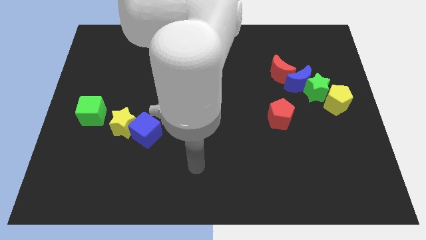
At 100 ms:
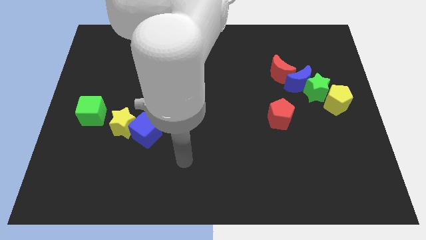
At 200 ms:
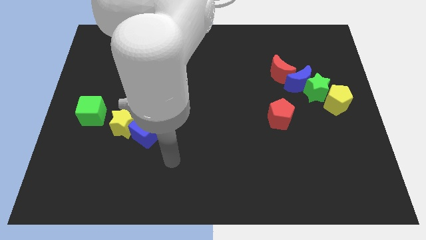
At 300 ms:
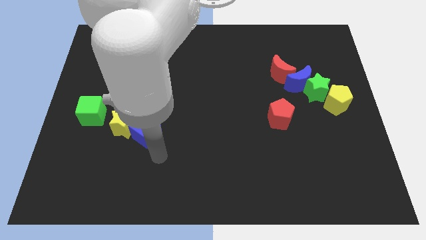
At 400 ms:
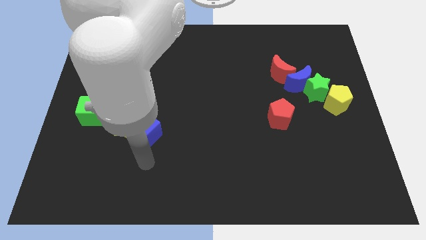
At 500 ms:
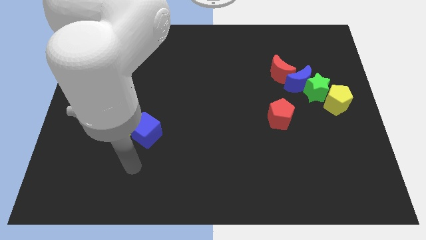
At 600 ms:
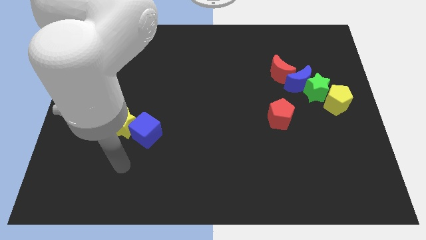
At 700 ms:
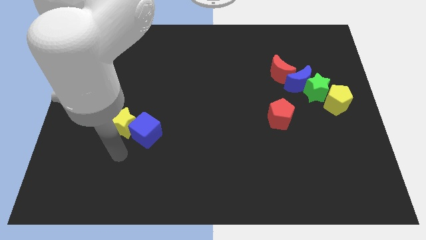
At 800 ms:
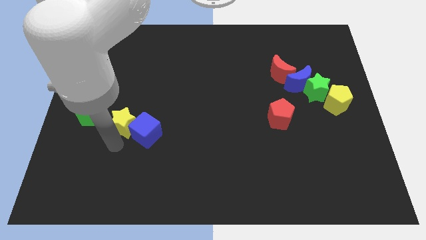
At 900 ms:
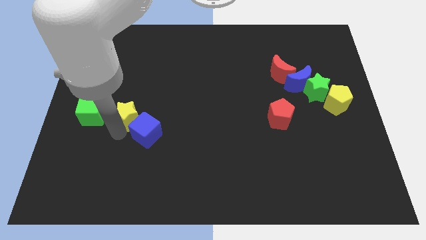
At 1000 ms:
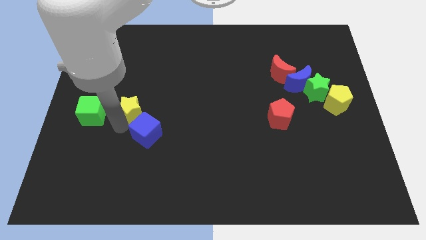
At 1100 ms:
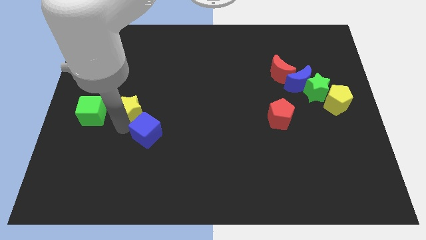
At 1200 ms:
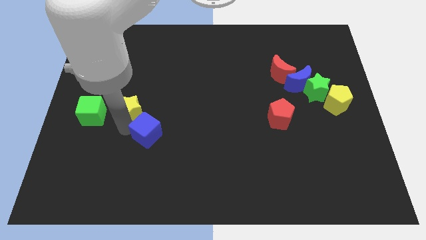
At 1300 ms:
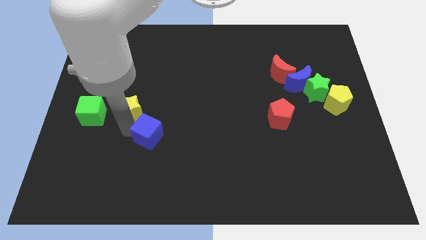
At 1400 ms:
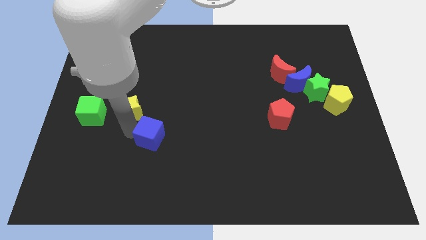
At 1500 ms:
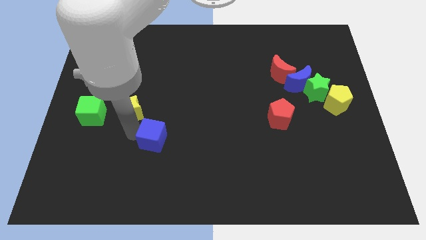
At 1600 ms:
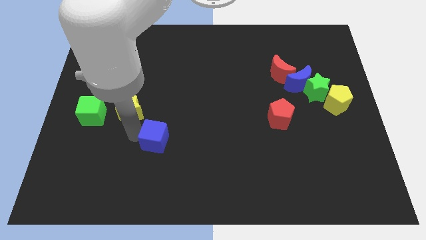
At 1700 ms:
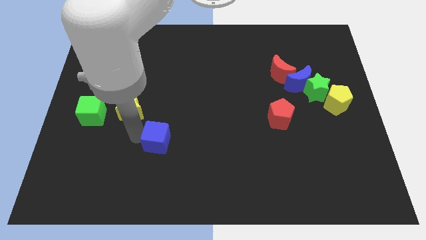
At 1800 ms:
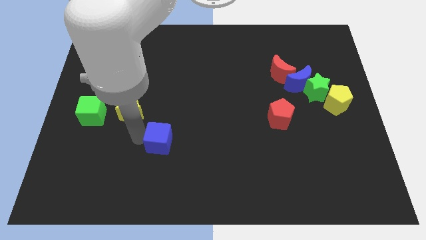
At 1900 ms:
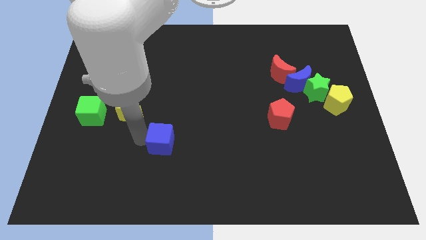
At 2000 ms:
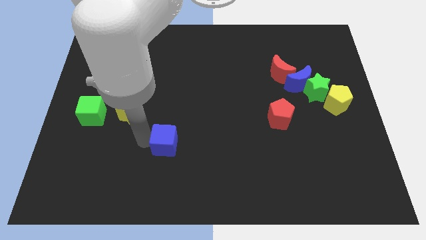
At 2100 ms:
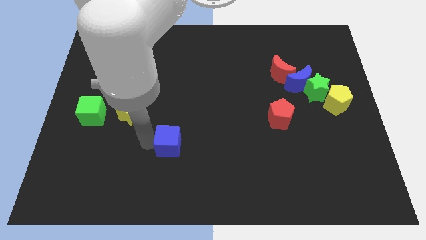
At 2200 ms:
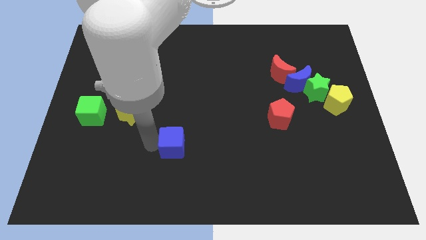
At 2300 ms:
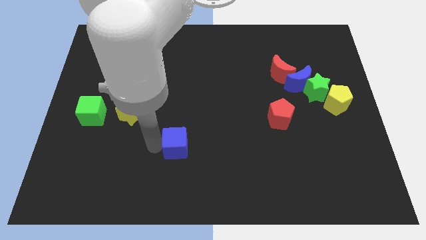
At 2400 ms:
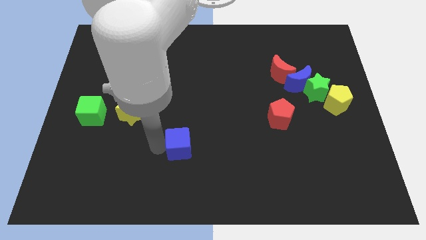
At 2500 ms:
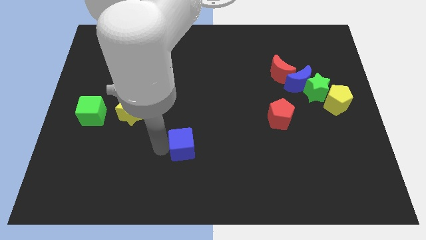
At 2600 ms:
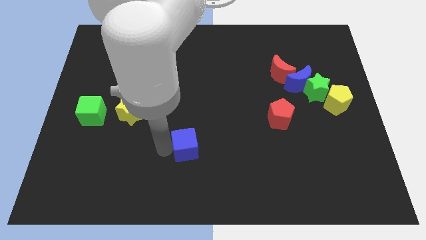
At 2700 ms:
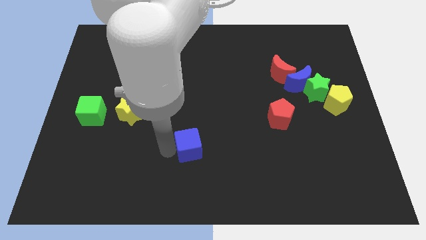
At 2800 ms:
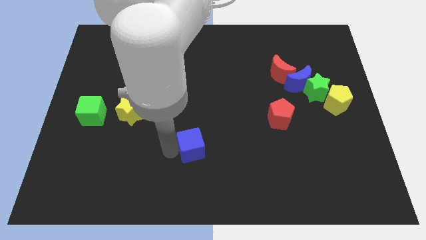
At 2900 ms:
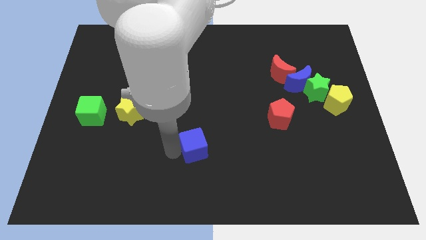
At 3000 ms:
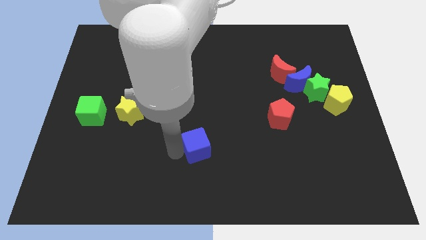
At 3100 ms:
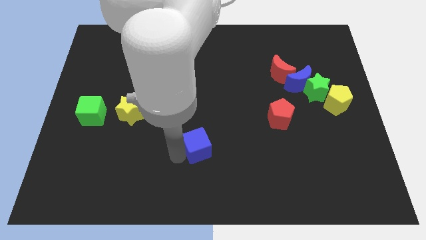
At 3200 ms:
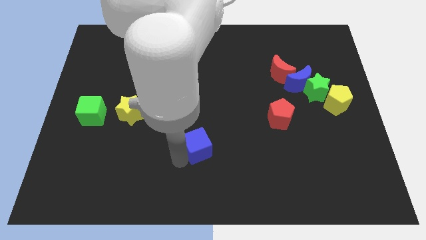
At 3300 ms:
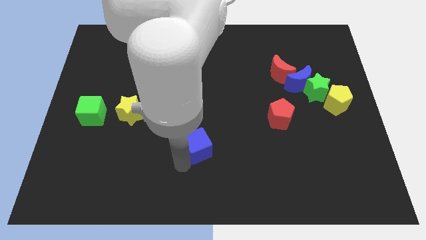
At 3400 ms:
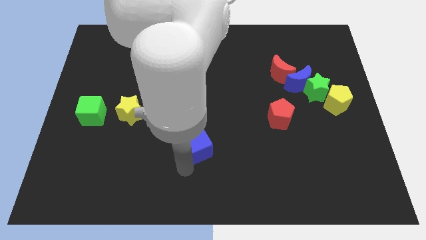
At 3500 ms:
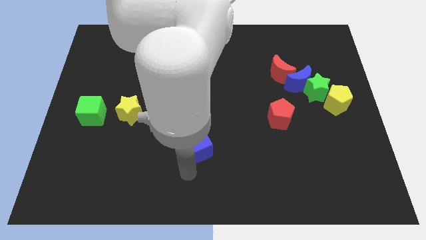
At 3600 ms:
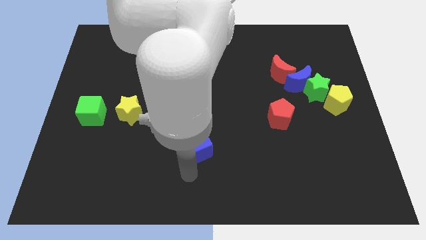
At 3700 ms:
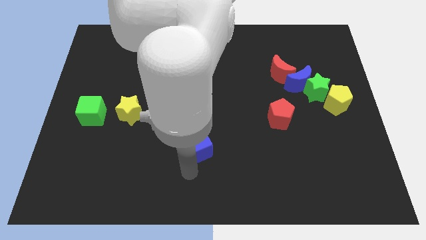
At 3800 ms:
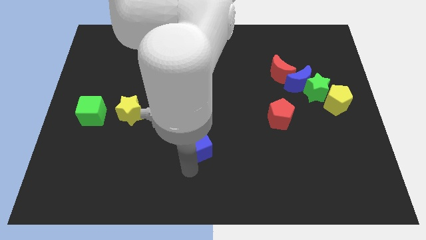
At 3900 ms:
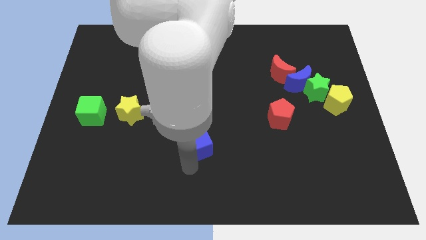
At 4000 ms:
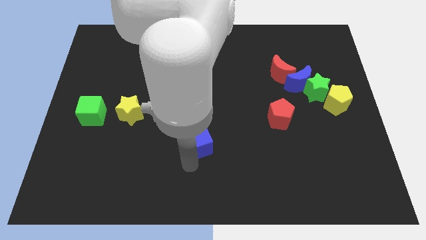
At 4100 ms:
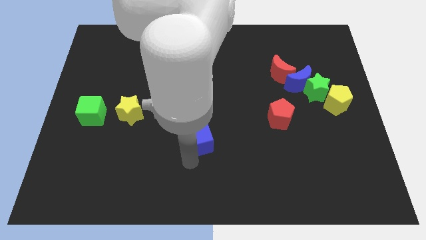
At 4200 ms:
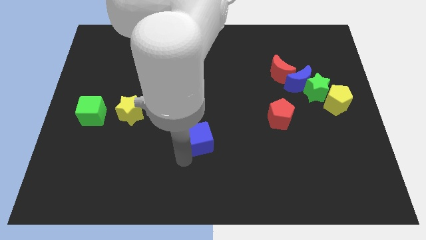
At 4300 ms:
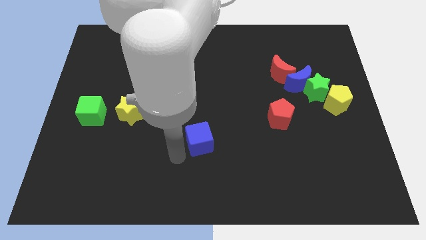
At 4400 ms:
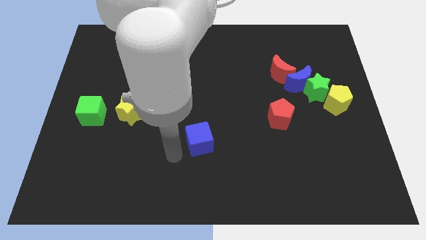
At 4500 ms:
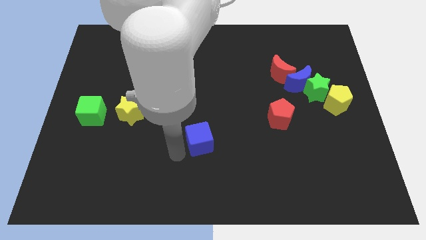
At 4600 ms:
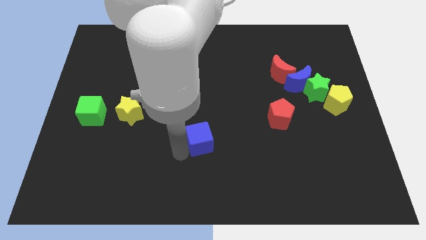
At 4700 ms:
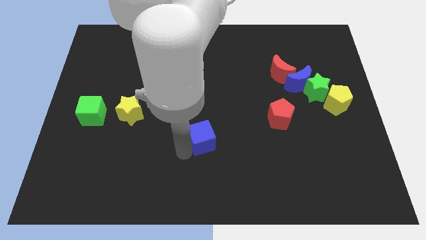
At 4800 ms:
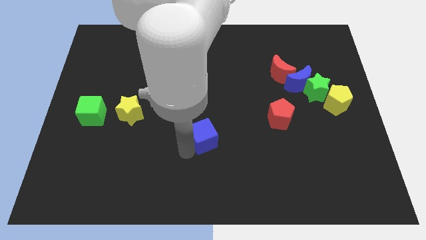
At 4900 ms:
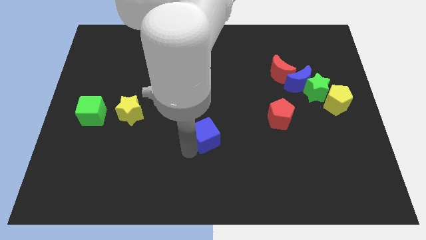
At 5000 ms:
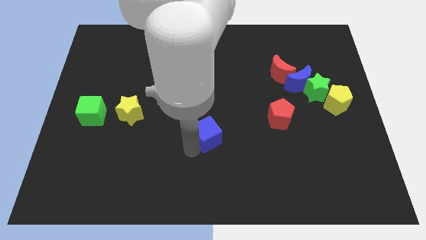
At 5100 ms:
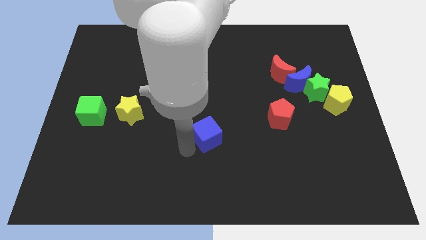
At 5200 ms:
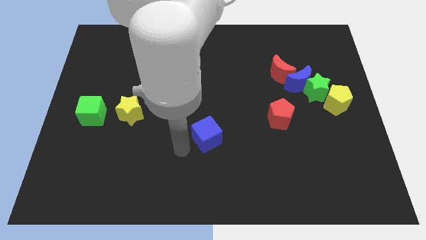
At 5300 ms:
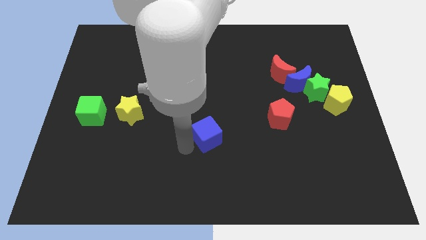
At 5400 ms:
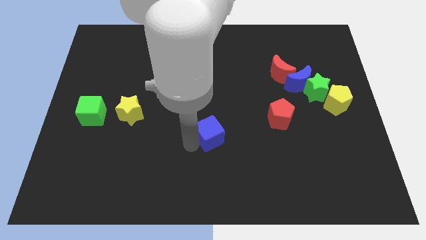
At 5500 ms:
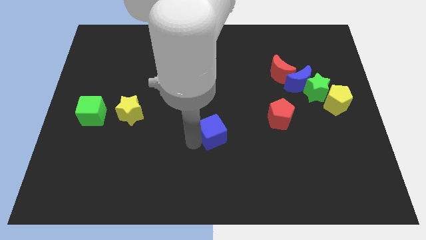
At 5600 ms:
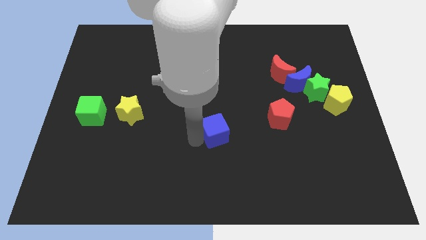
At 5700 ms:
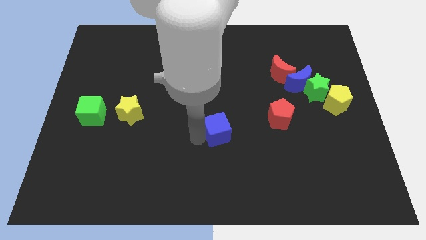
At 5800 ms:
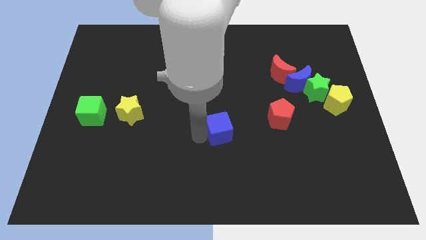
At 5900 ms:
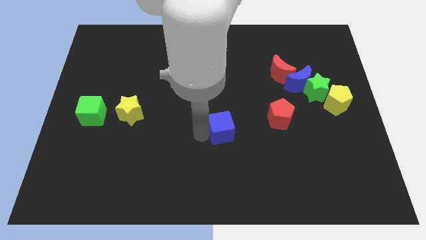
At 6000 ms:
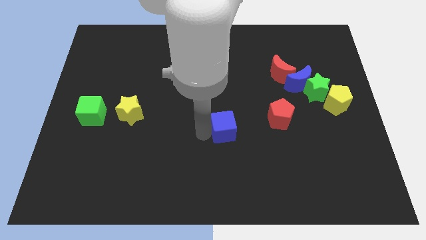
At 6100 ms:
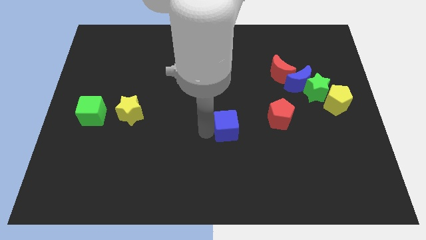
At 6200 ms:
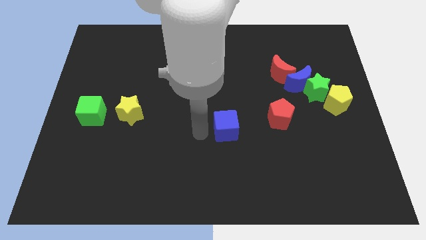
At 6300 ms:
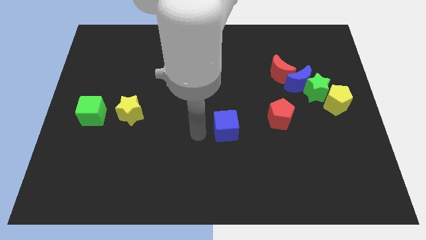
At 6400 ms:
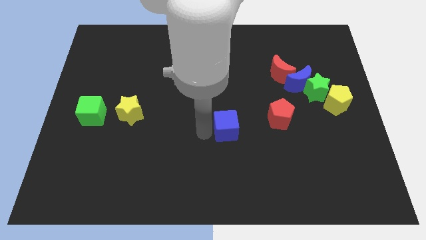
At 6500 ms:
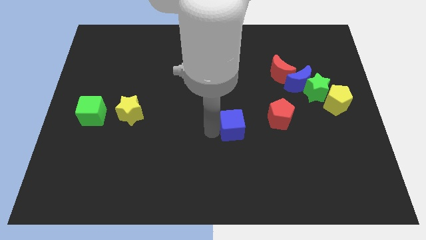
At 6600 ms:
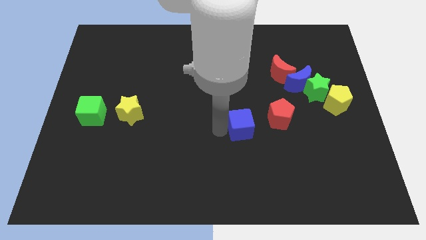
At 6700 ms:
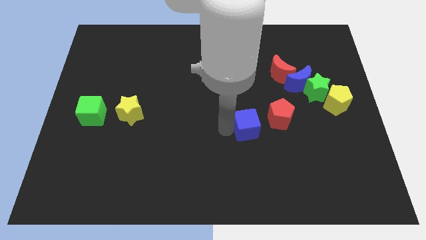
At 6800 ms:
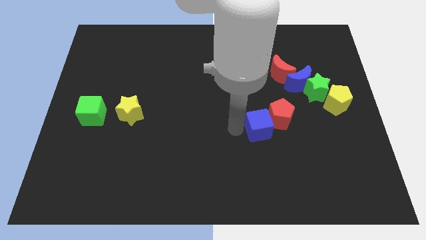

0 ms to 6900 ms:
move the blue cube next to the red pentagon

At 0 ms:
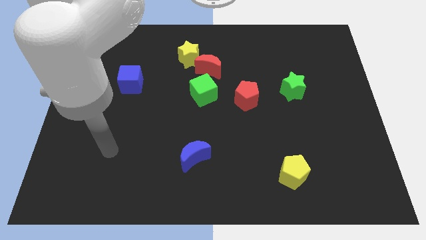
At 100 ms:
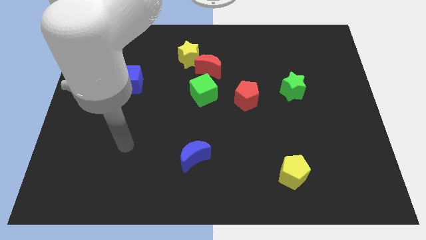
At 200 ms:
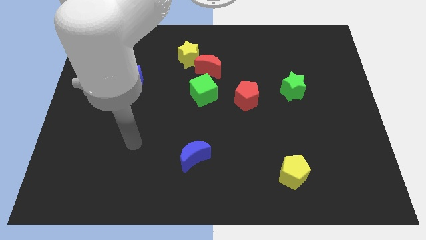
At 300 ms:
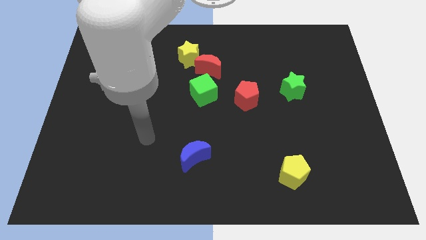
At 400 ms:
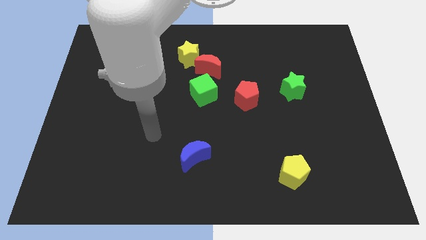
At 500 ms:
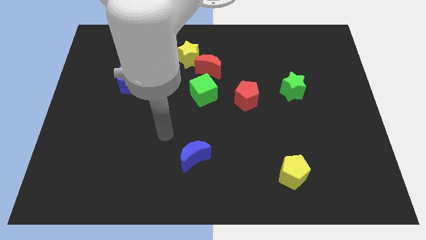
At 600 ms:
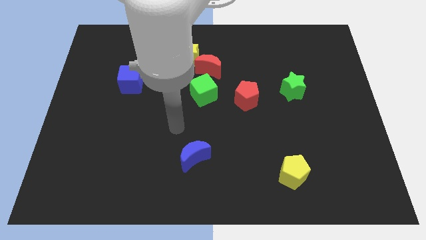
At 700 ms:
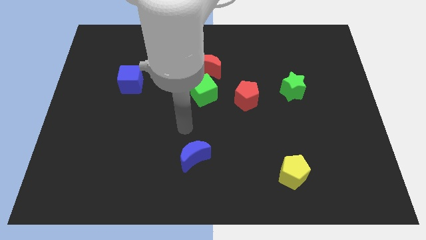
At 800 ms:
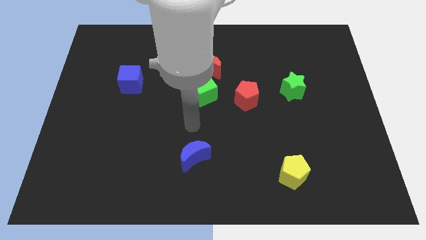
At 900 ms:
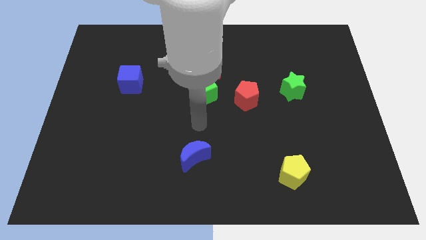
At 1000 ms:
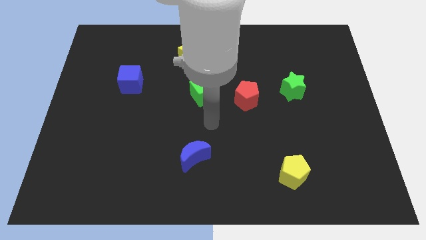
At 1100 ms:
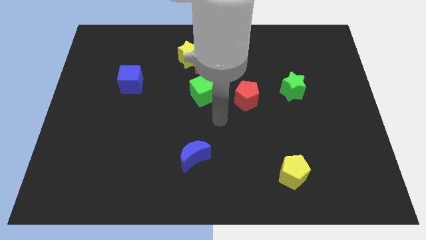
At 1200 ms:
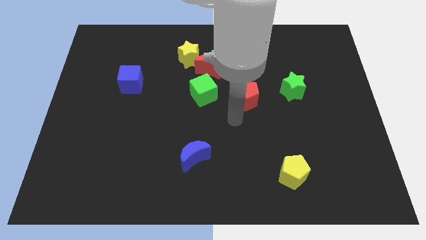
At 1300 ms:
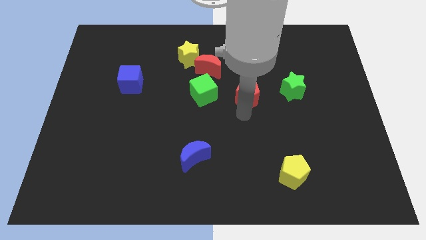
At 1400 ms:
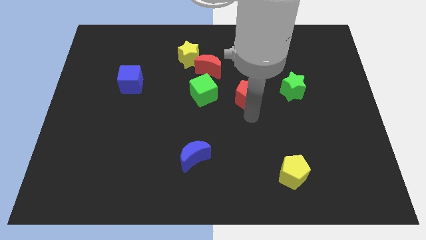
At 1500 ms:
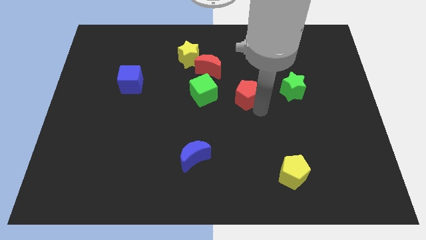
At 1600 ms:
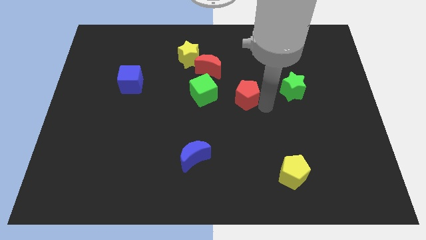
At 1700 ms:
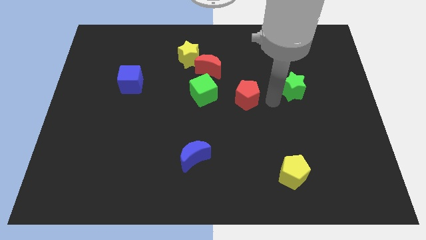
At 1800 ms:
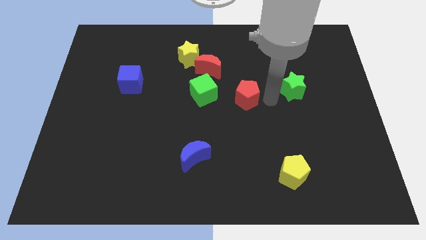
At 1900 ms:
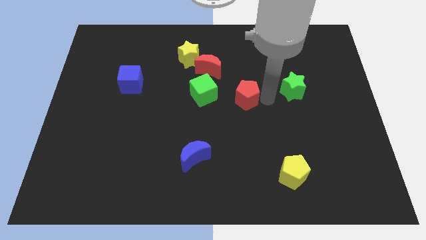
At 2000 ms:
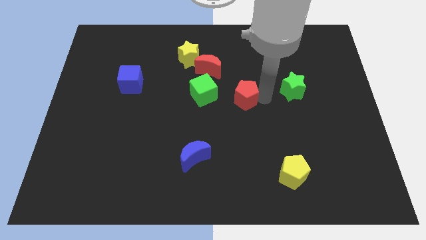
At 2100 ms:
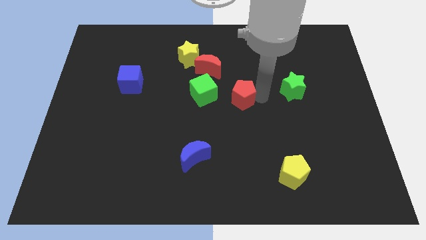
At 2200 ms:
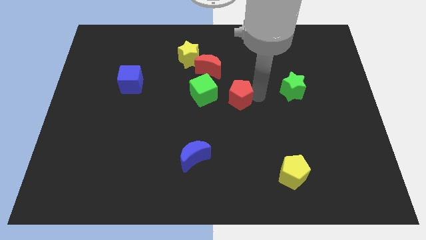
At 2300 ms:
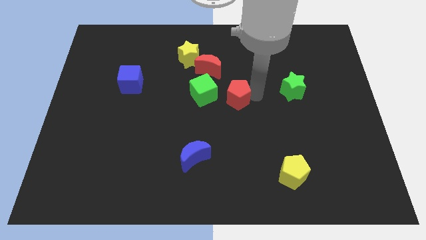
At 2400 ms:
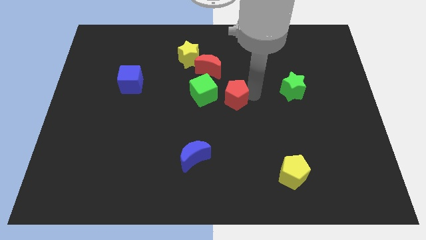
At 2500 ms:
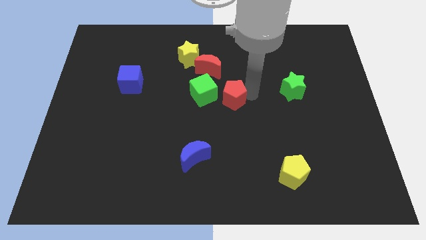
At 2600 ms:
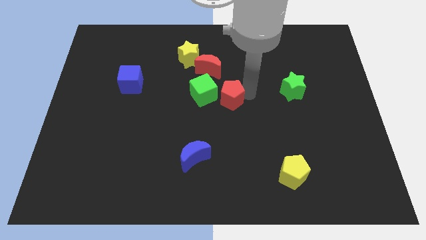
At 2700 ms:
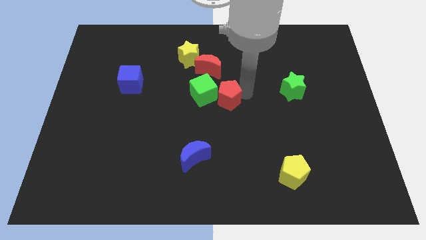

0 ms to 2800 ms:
slide the red pentagon to the green cube
